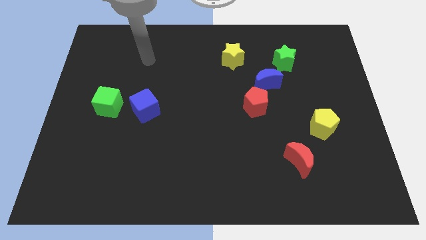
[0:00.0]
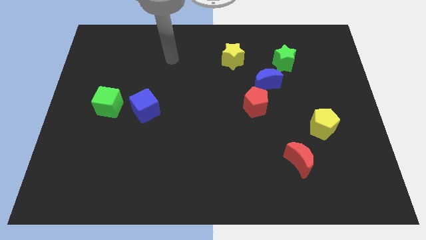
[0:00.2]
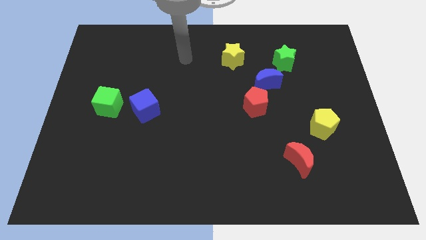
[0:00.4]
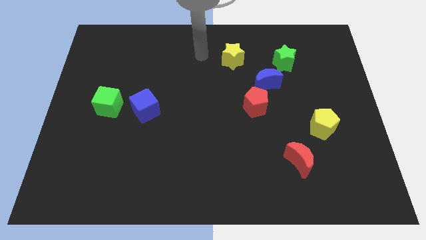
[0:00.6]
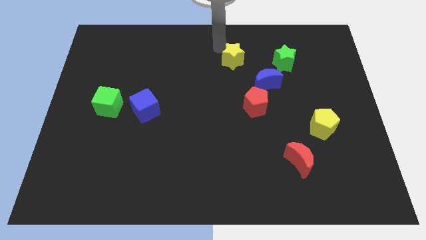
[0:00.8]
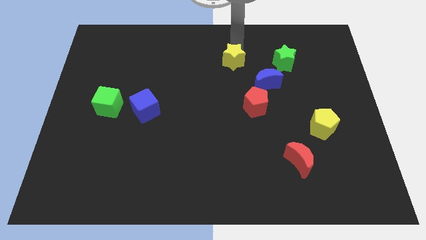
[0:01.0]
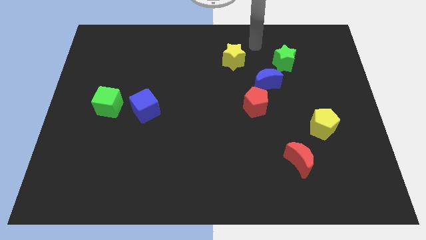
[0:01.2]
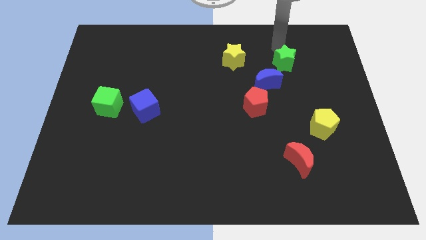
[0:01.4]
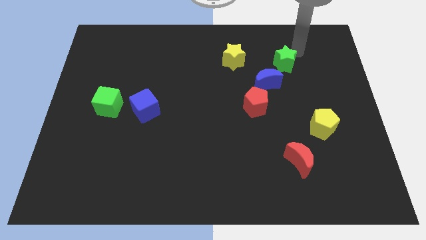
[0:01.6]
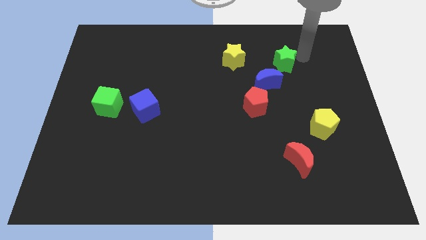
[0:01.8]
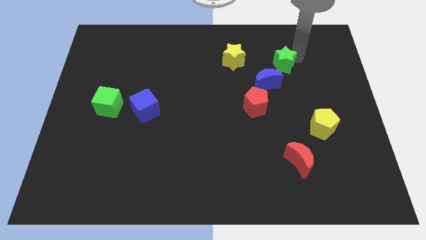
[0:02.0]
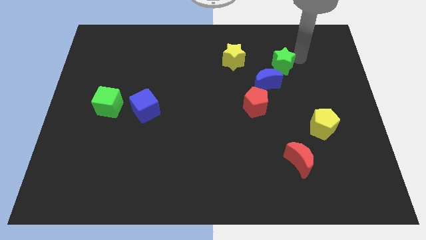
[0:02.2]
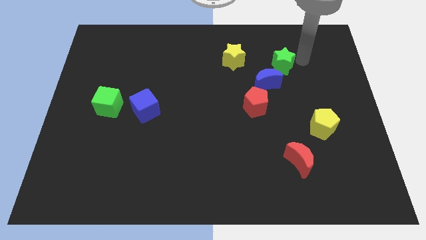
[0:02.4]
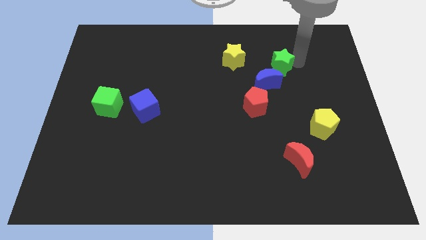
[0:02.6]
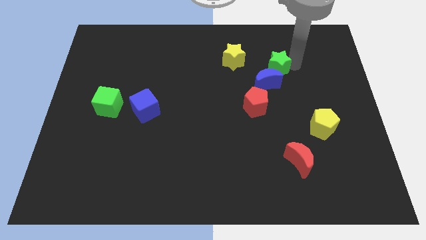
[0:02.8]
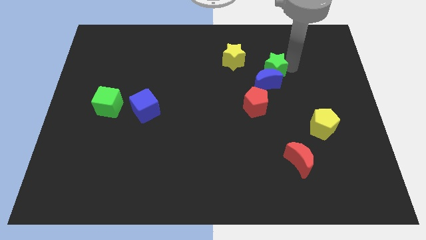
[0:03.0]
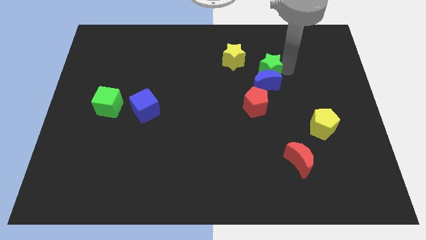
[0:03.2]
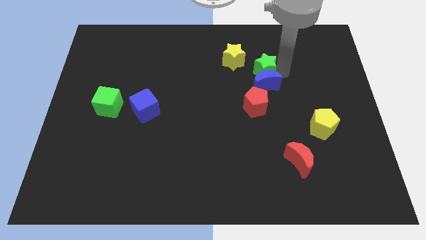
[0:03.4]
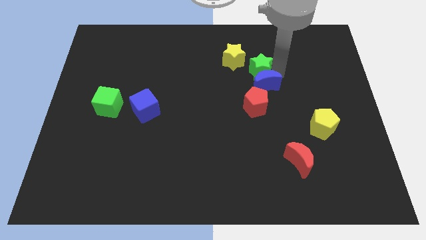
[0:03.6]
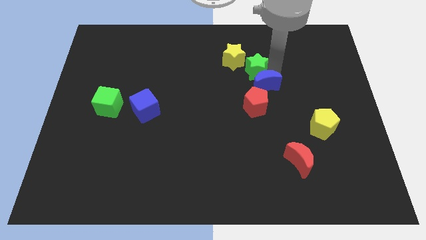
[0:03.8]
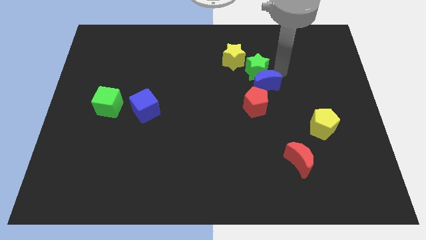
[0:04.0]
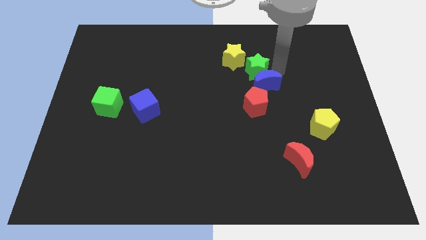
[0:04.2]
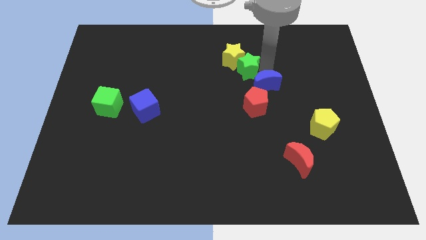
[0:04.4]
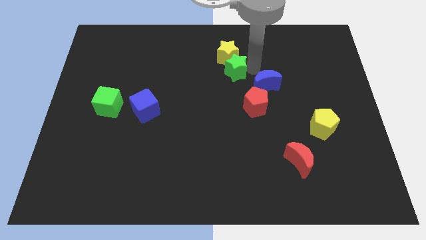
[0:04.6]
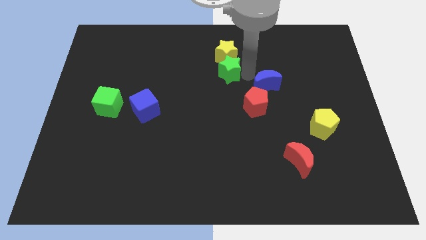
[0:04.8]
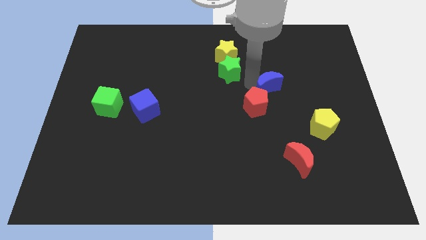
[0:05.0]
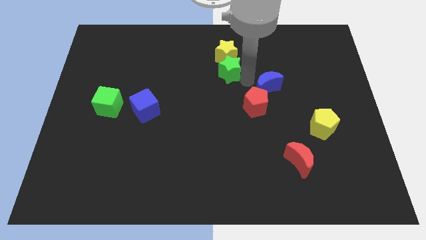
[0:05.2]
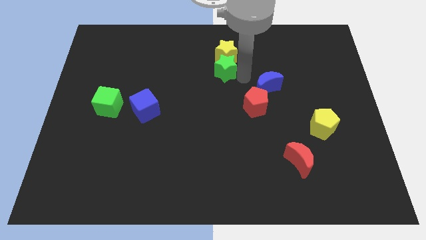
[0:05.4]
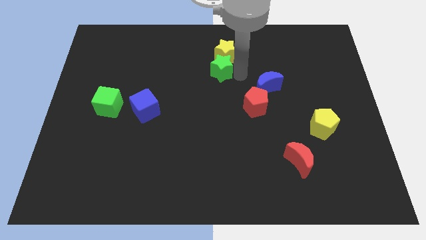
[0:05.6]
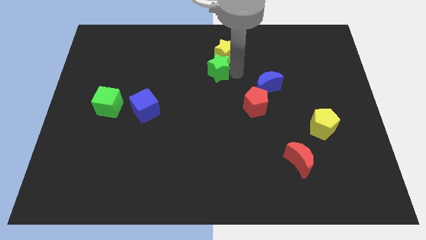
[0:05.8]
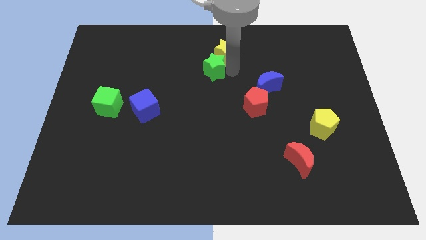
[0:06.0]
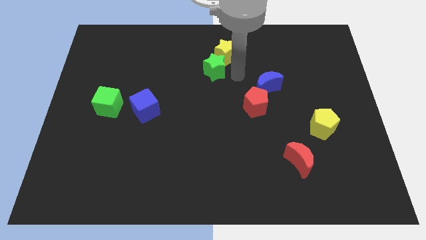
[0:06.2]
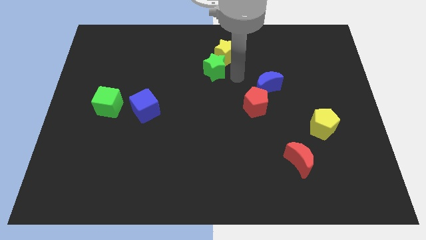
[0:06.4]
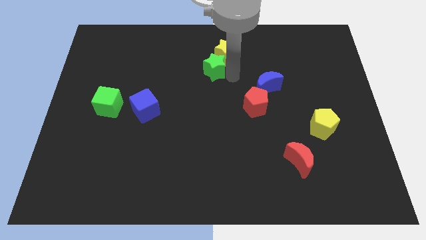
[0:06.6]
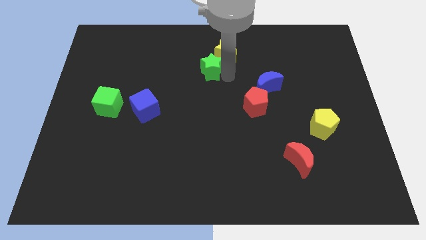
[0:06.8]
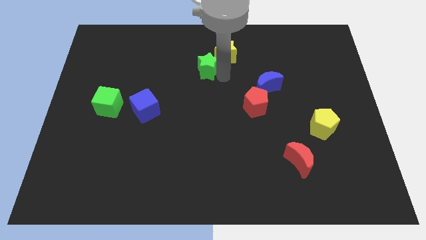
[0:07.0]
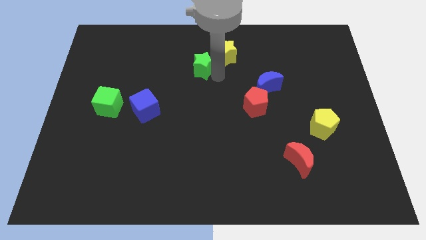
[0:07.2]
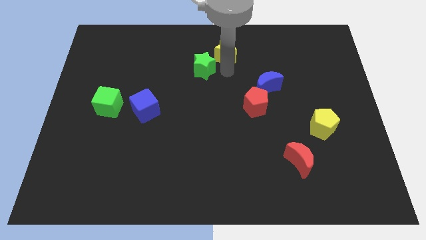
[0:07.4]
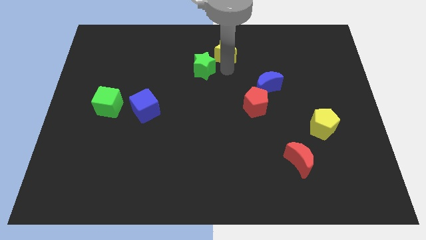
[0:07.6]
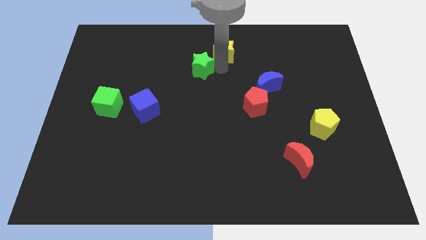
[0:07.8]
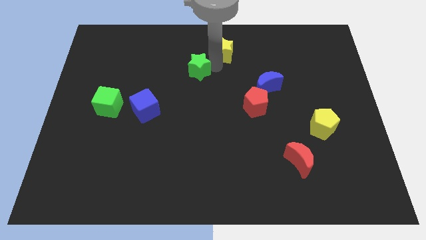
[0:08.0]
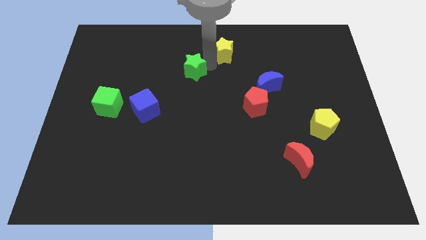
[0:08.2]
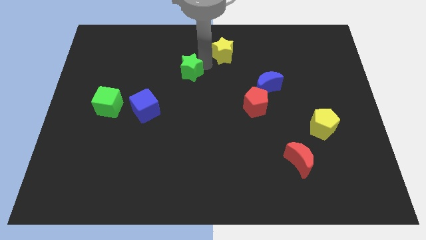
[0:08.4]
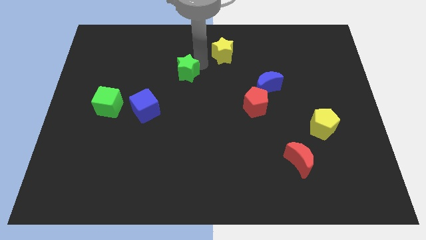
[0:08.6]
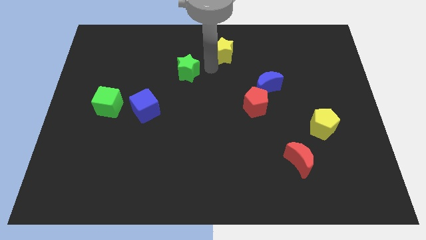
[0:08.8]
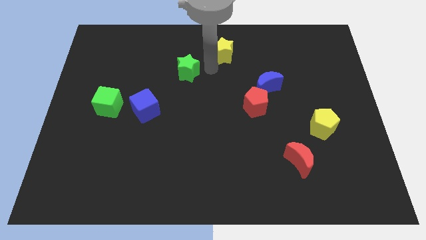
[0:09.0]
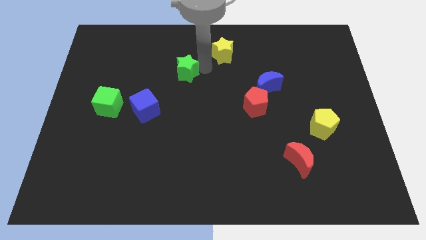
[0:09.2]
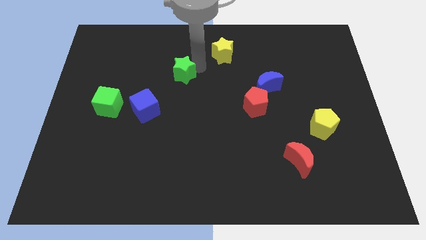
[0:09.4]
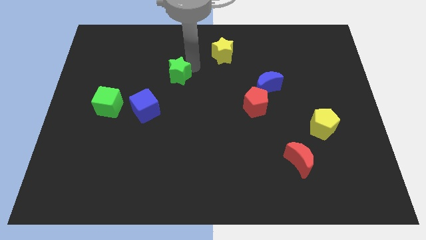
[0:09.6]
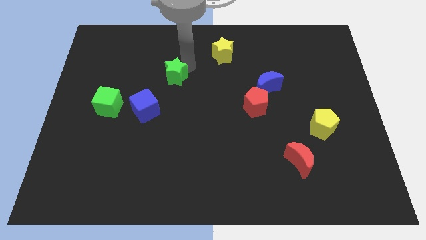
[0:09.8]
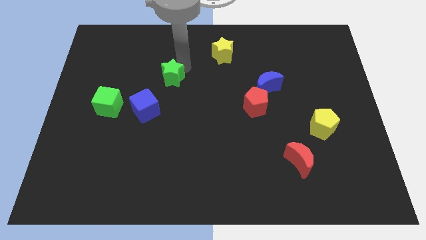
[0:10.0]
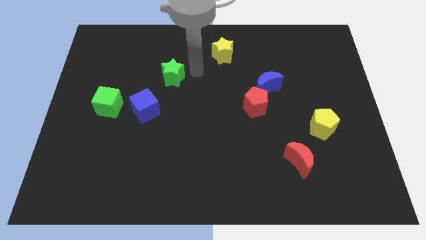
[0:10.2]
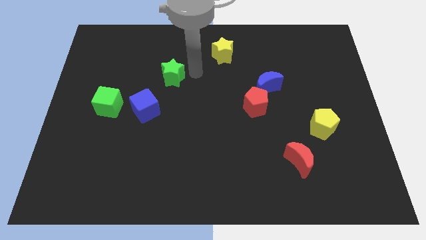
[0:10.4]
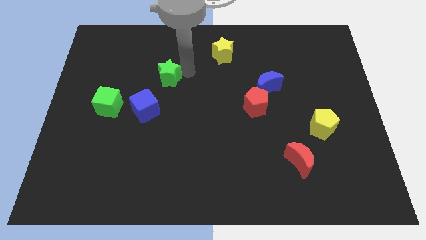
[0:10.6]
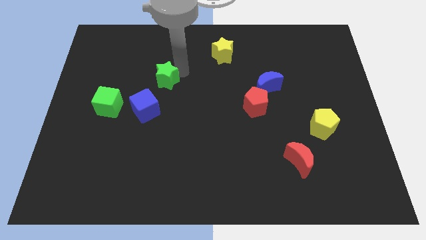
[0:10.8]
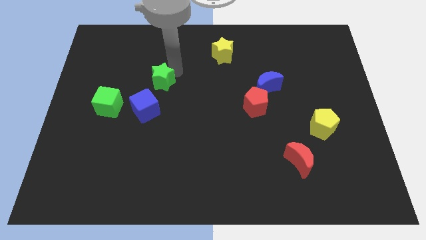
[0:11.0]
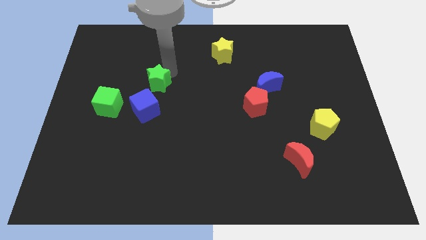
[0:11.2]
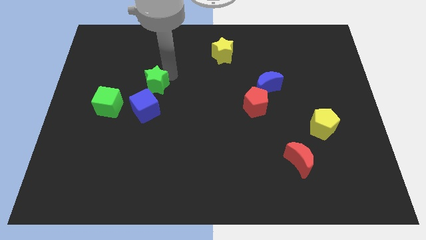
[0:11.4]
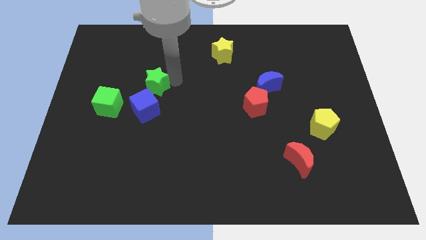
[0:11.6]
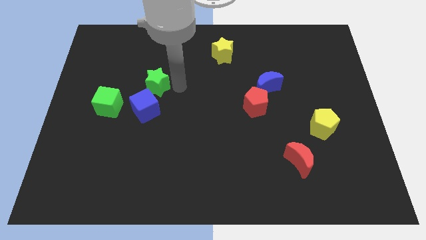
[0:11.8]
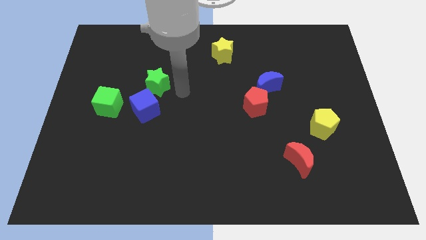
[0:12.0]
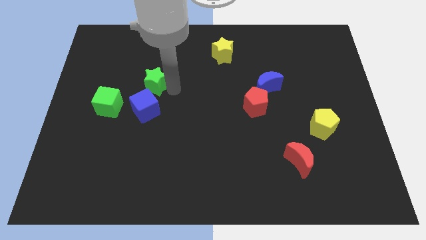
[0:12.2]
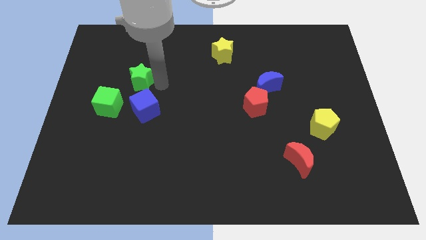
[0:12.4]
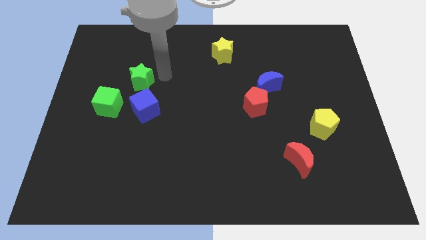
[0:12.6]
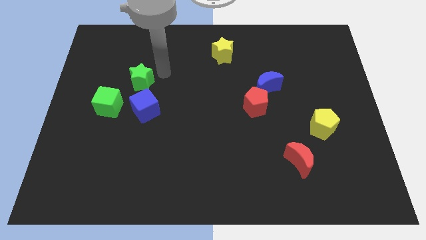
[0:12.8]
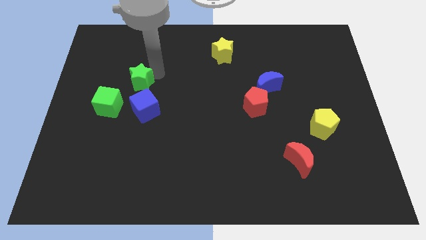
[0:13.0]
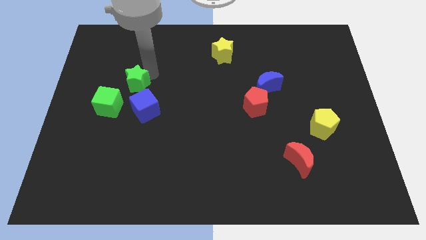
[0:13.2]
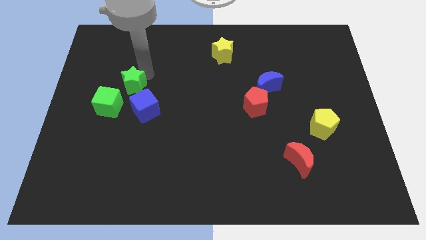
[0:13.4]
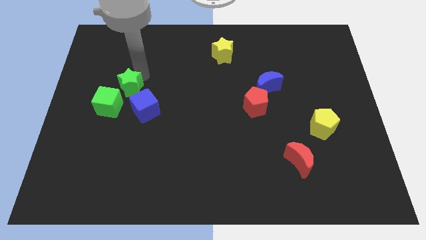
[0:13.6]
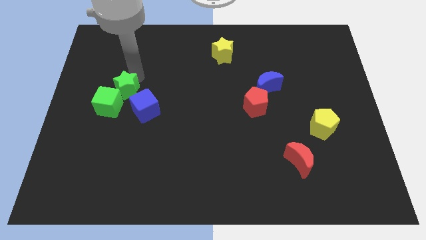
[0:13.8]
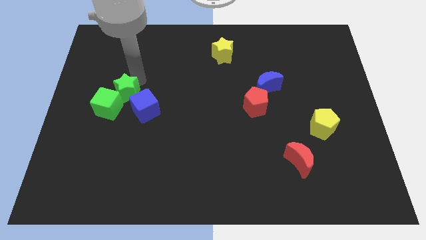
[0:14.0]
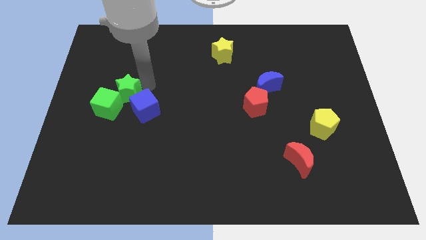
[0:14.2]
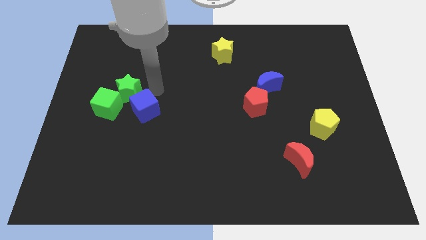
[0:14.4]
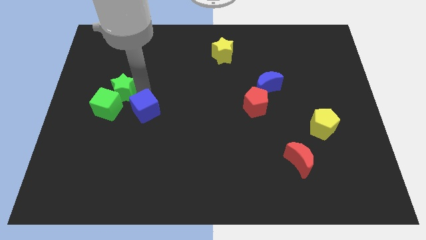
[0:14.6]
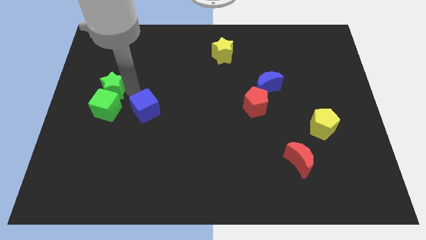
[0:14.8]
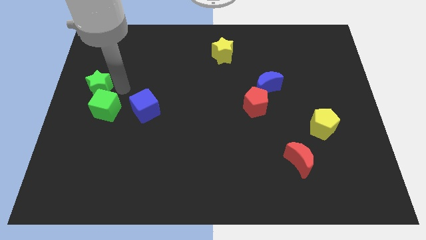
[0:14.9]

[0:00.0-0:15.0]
put the green star to the center left
